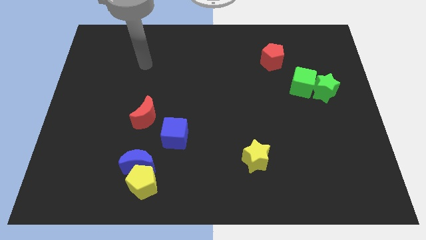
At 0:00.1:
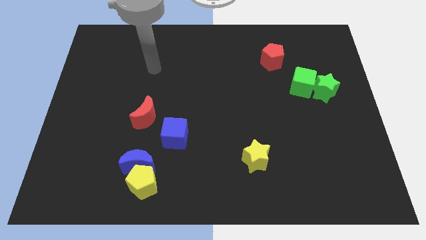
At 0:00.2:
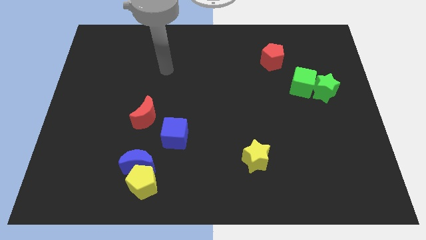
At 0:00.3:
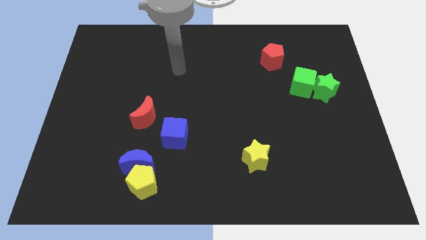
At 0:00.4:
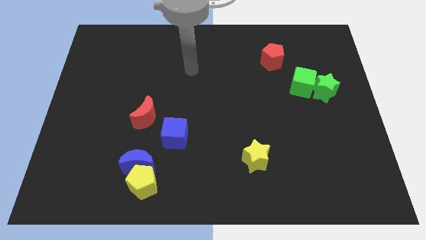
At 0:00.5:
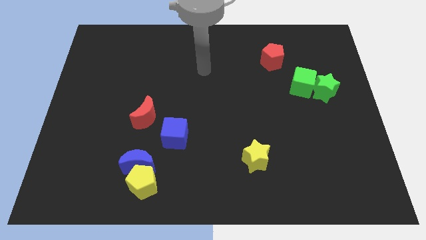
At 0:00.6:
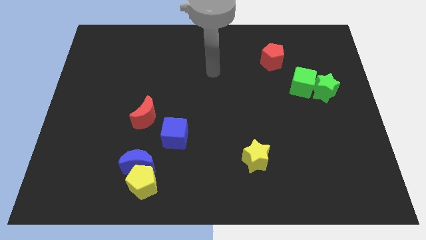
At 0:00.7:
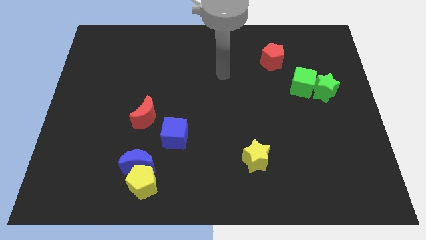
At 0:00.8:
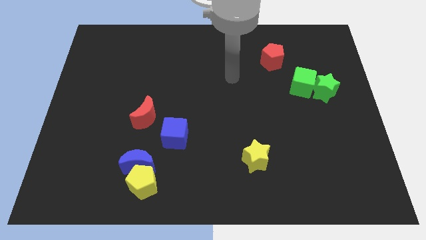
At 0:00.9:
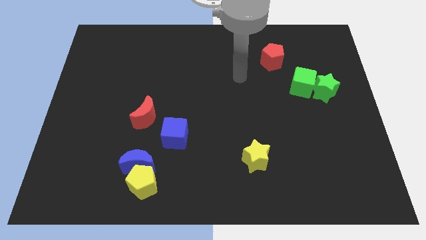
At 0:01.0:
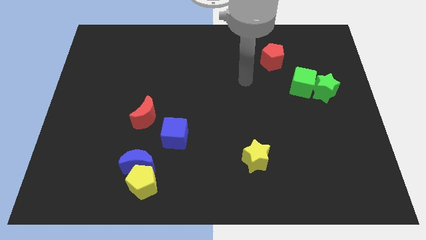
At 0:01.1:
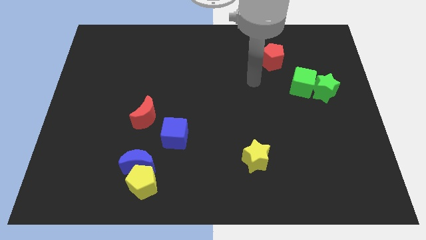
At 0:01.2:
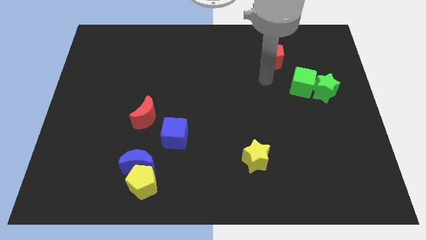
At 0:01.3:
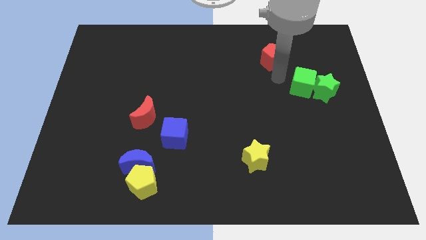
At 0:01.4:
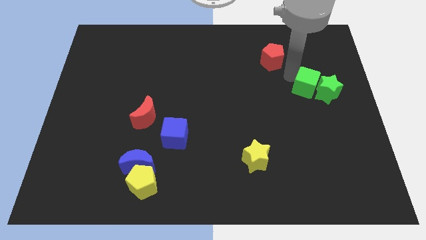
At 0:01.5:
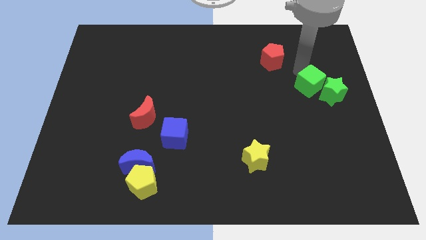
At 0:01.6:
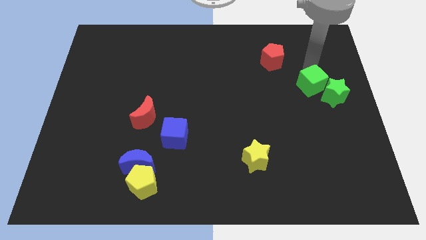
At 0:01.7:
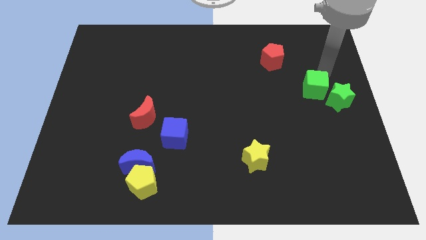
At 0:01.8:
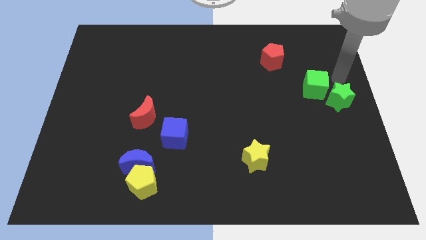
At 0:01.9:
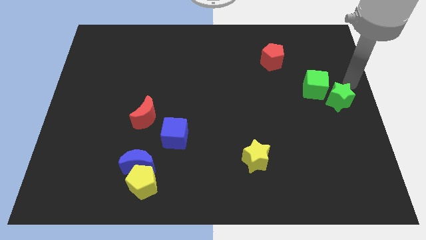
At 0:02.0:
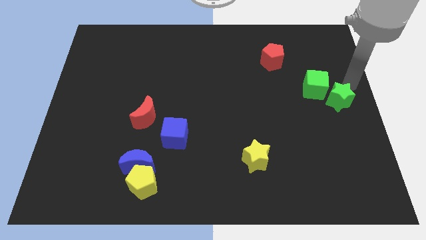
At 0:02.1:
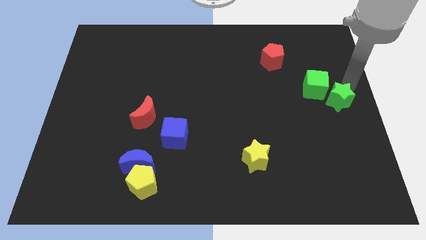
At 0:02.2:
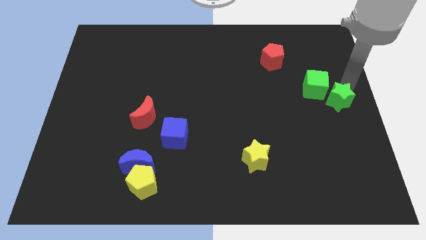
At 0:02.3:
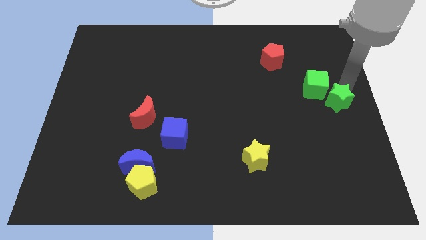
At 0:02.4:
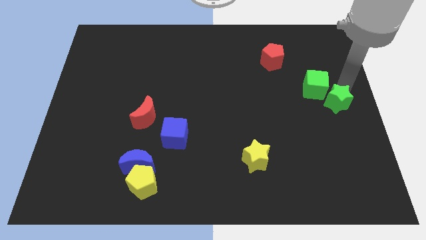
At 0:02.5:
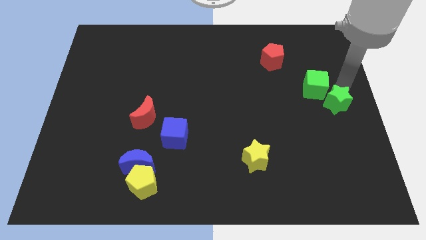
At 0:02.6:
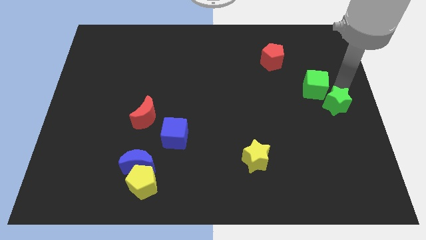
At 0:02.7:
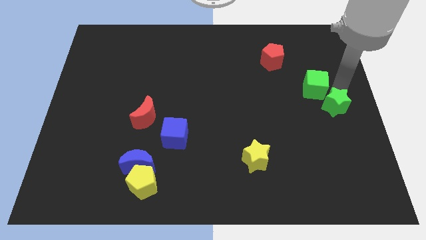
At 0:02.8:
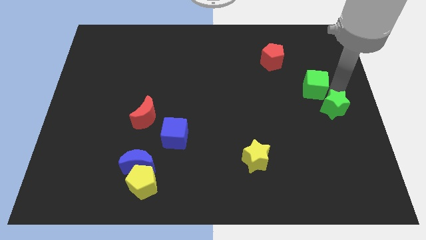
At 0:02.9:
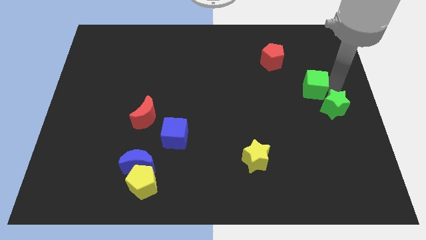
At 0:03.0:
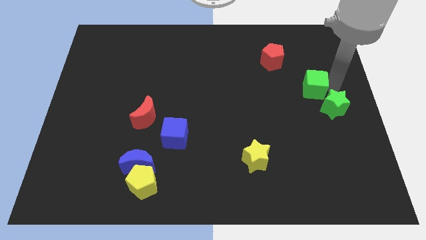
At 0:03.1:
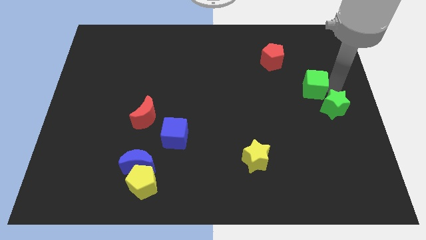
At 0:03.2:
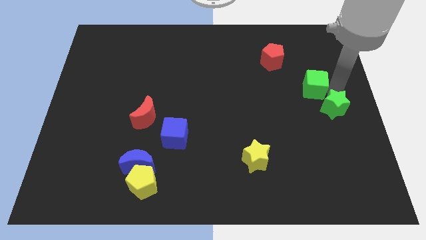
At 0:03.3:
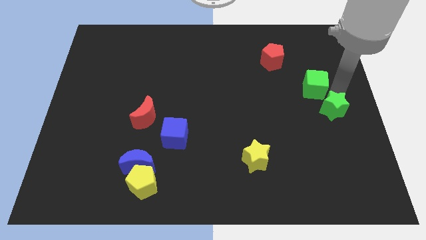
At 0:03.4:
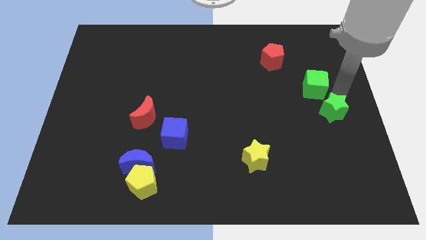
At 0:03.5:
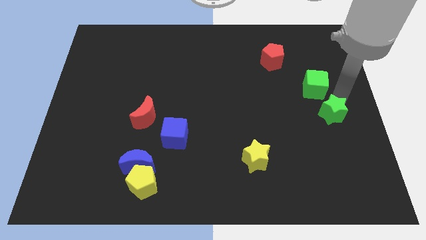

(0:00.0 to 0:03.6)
move the green star a bit downwards

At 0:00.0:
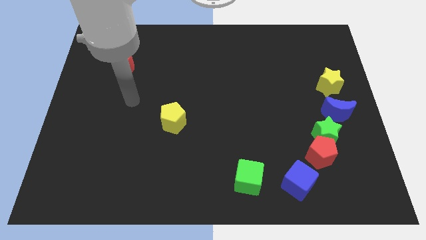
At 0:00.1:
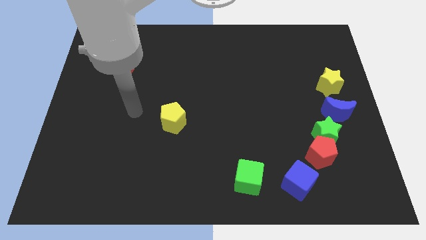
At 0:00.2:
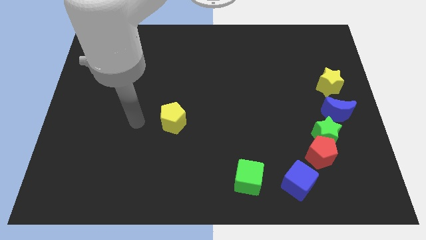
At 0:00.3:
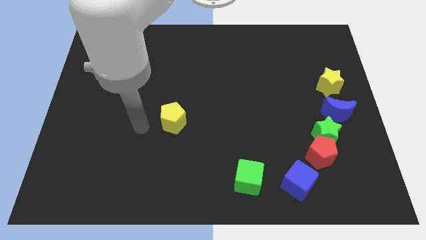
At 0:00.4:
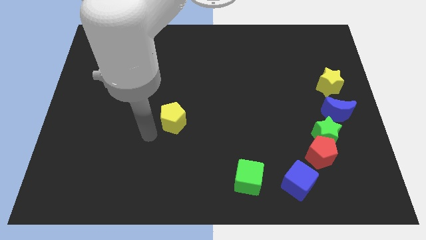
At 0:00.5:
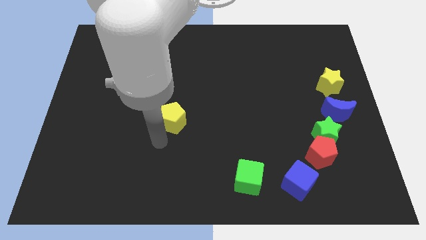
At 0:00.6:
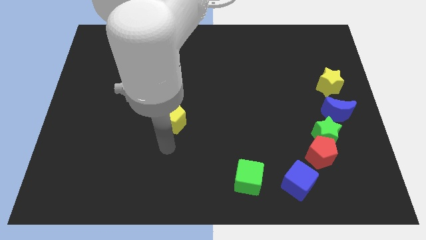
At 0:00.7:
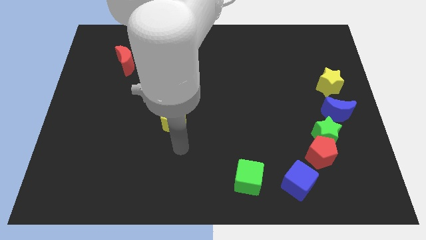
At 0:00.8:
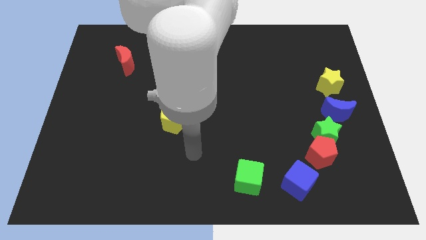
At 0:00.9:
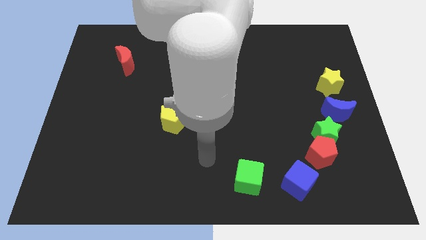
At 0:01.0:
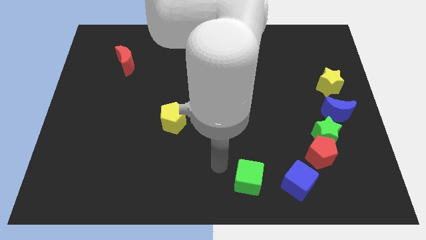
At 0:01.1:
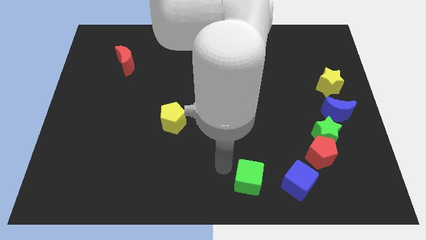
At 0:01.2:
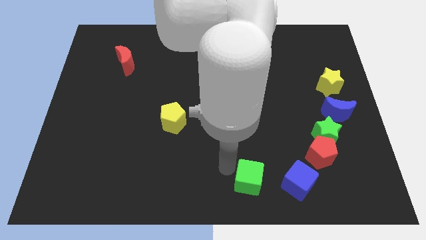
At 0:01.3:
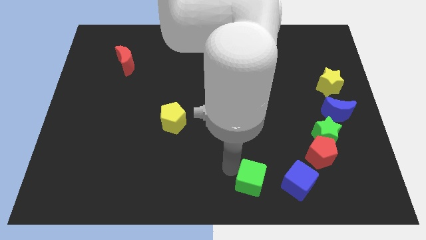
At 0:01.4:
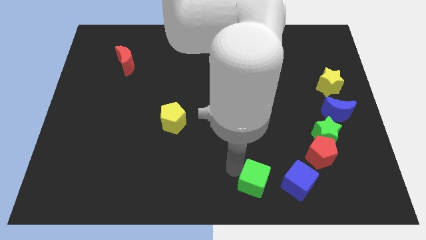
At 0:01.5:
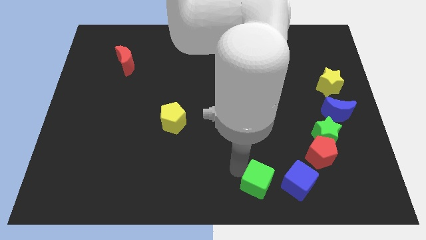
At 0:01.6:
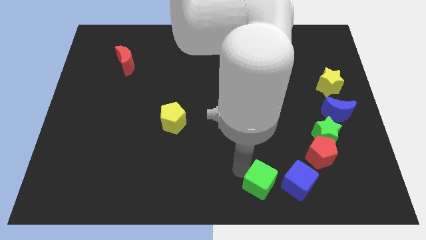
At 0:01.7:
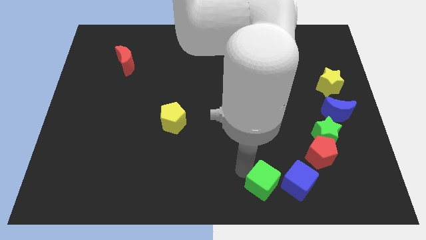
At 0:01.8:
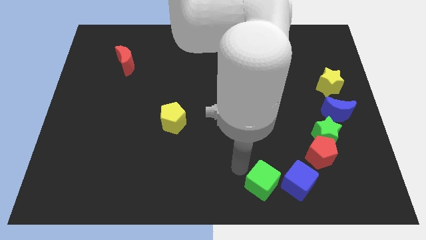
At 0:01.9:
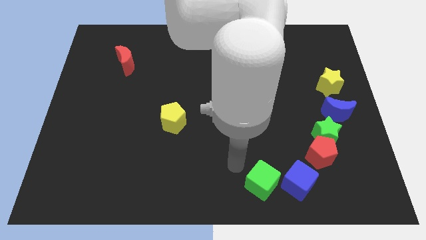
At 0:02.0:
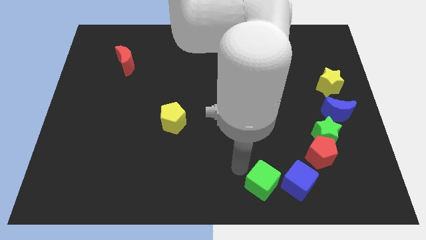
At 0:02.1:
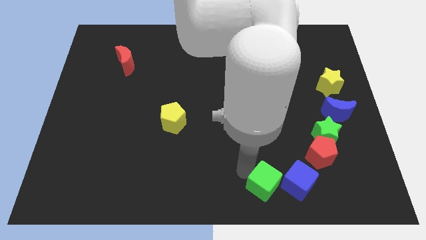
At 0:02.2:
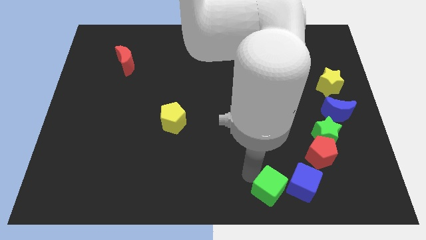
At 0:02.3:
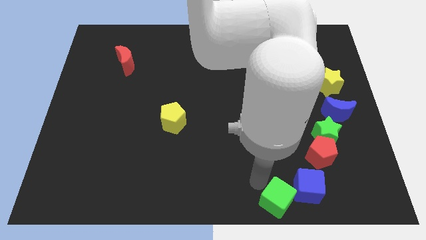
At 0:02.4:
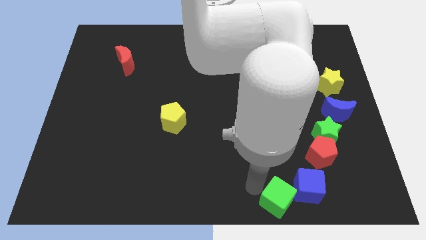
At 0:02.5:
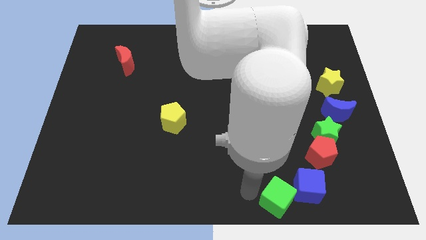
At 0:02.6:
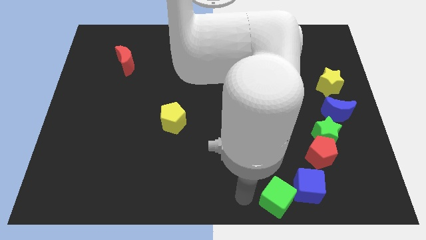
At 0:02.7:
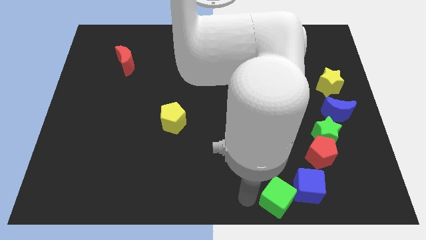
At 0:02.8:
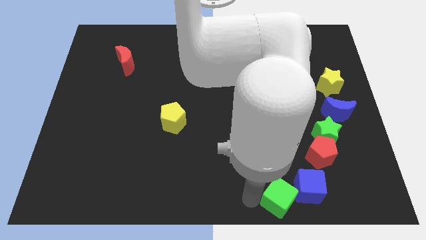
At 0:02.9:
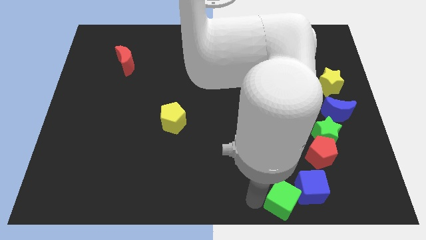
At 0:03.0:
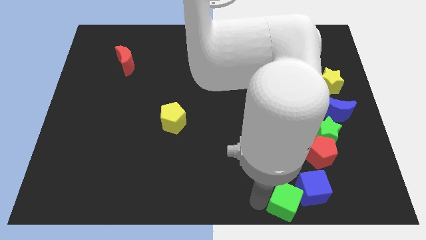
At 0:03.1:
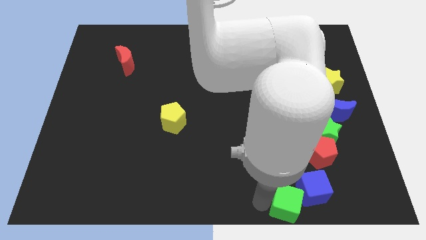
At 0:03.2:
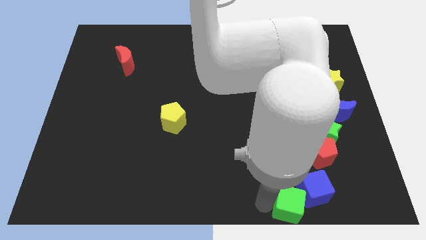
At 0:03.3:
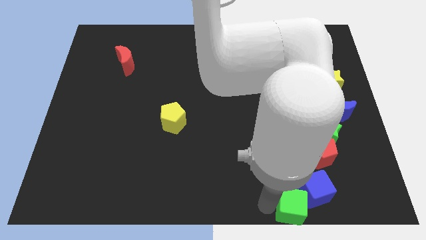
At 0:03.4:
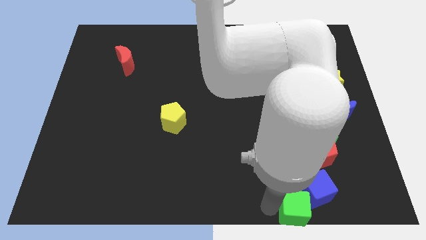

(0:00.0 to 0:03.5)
push the green cube to the right a little

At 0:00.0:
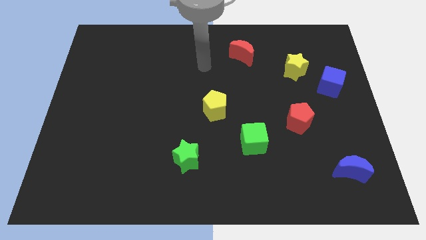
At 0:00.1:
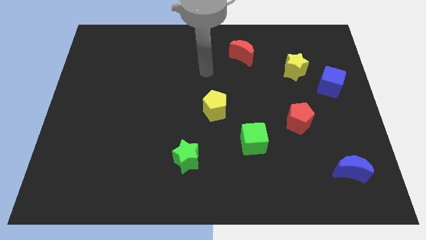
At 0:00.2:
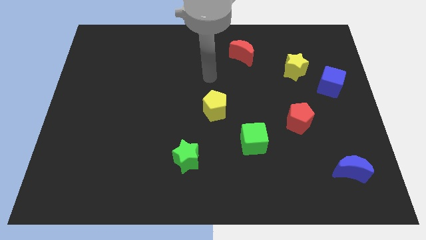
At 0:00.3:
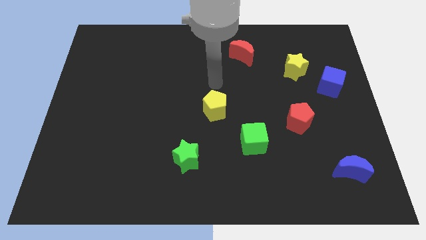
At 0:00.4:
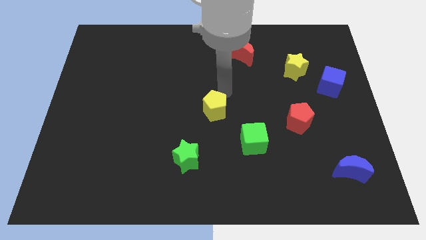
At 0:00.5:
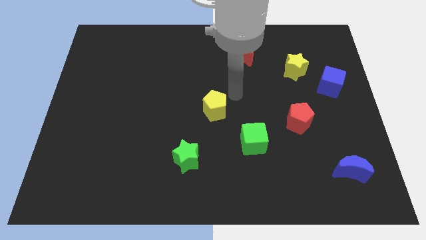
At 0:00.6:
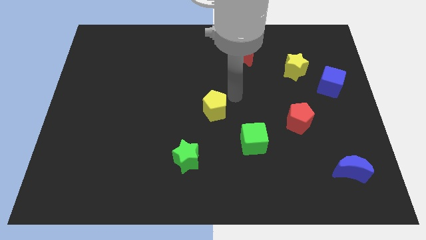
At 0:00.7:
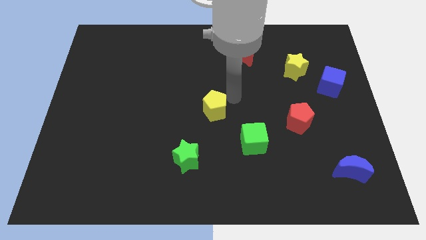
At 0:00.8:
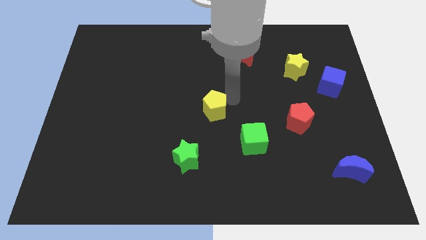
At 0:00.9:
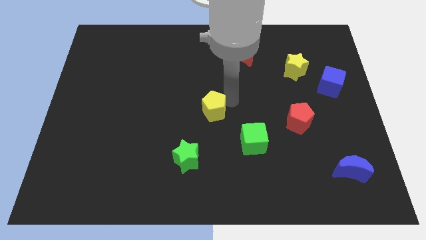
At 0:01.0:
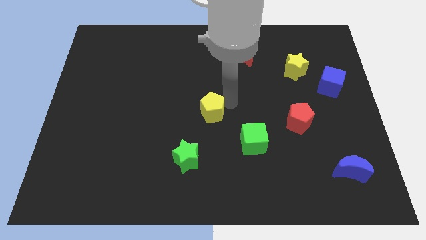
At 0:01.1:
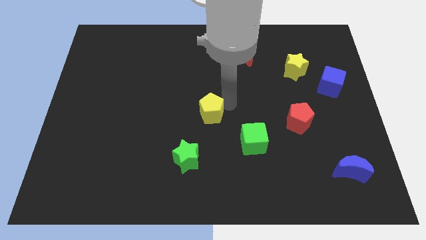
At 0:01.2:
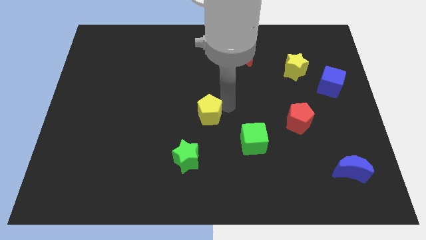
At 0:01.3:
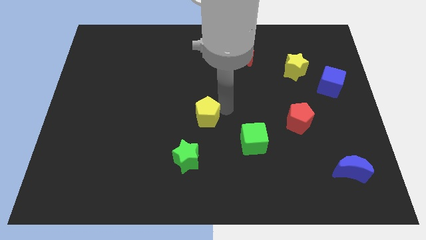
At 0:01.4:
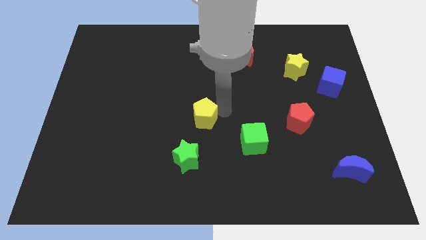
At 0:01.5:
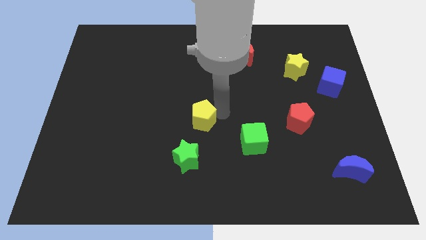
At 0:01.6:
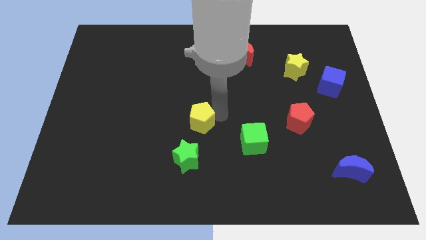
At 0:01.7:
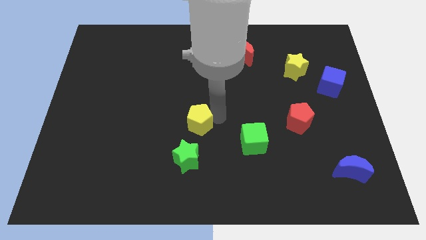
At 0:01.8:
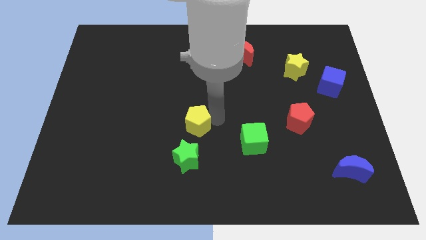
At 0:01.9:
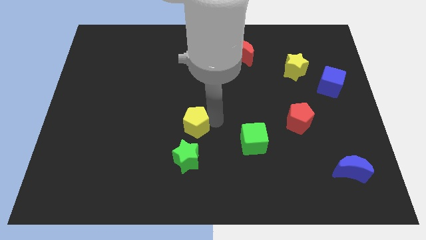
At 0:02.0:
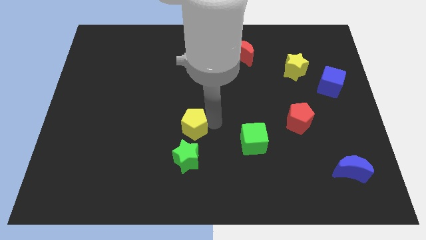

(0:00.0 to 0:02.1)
slide the yellow pentagon a little bit down and to the left
